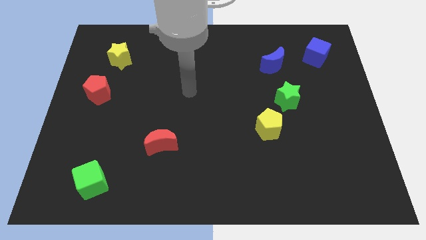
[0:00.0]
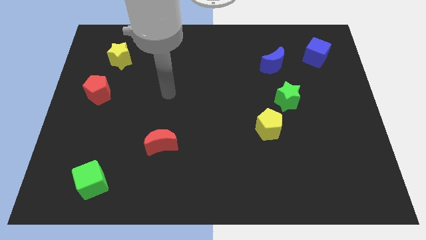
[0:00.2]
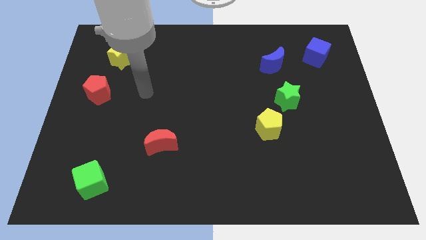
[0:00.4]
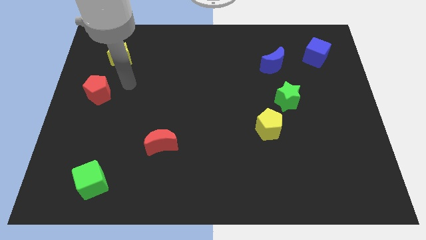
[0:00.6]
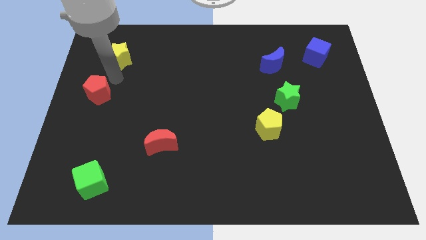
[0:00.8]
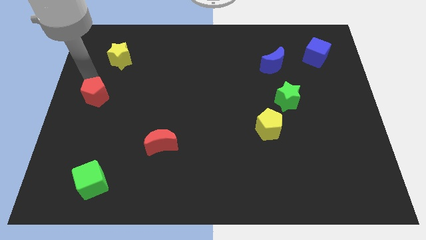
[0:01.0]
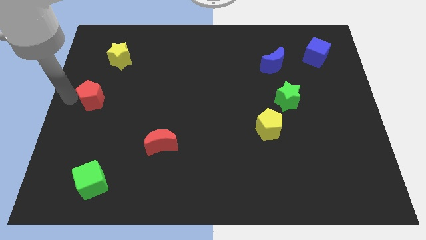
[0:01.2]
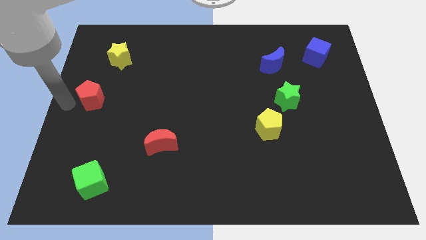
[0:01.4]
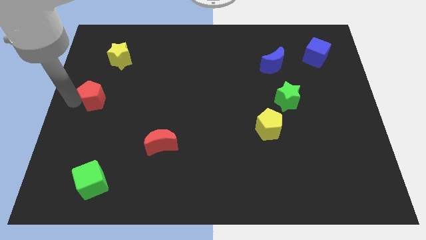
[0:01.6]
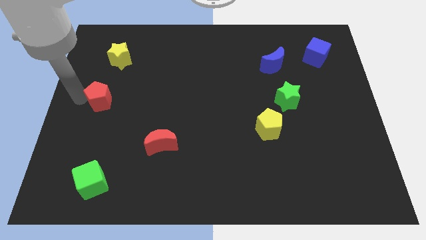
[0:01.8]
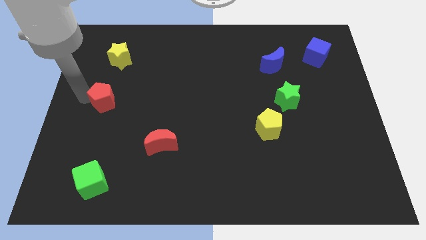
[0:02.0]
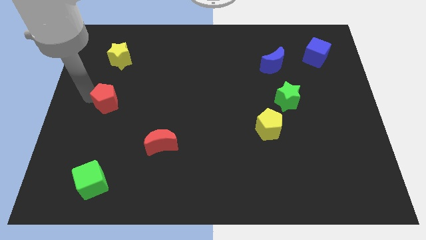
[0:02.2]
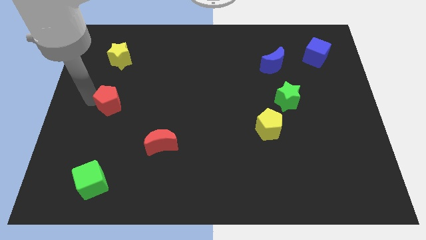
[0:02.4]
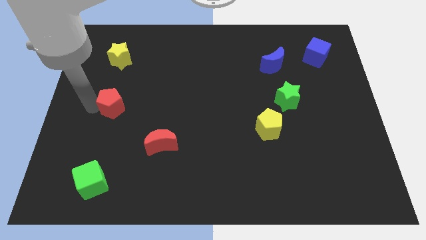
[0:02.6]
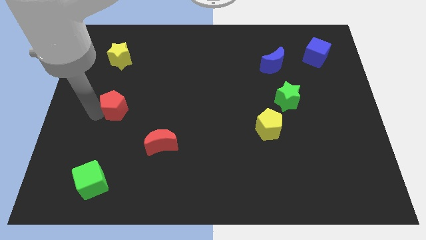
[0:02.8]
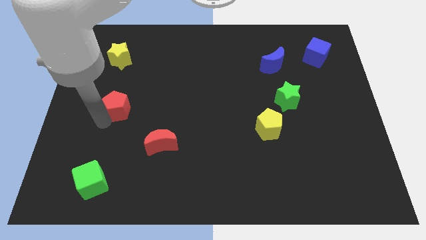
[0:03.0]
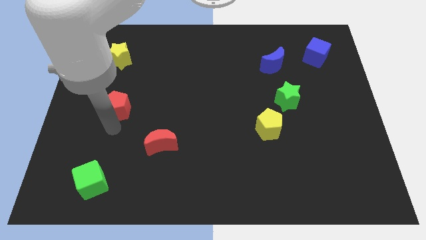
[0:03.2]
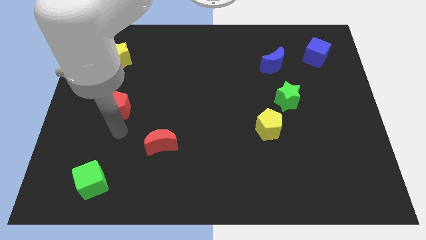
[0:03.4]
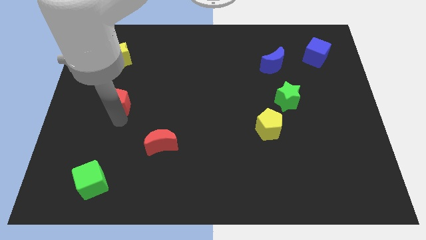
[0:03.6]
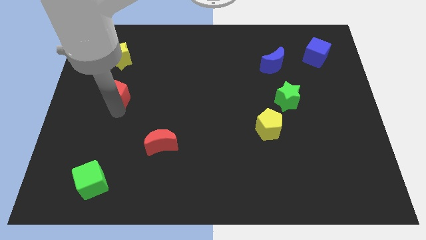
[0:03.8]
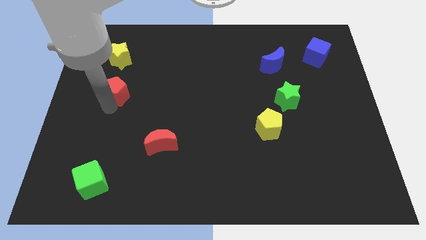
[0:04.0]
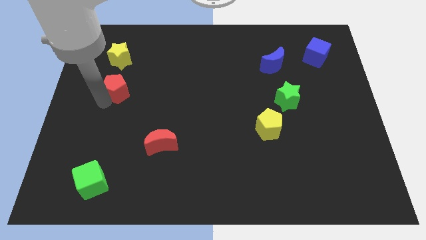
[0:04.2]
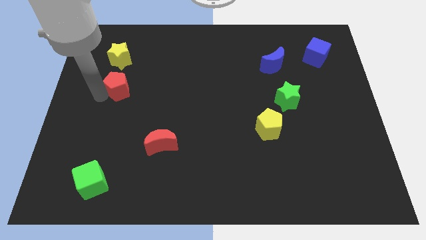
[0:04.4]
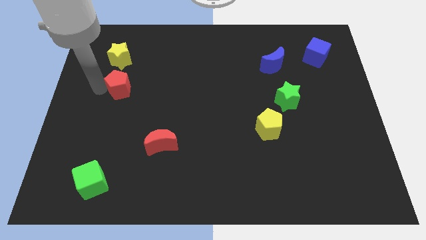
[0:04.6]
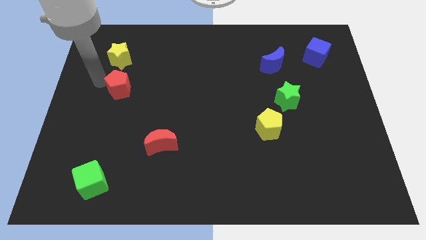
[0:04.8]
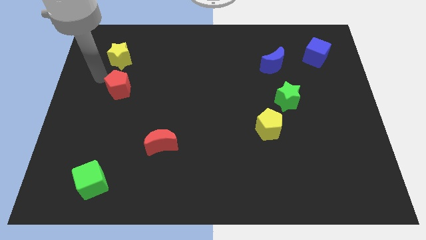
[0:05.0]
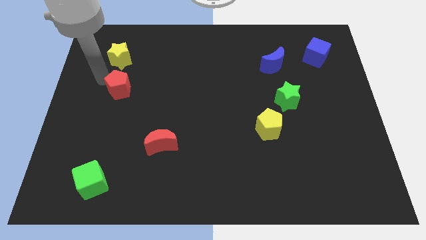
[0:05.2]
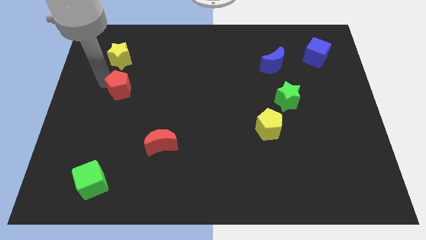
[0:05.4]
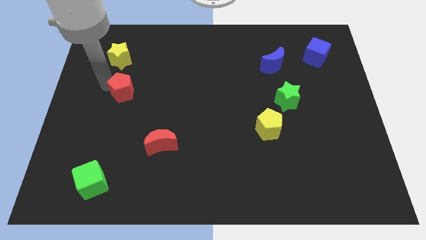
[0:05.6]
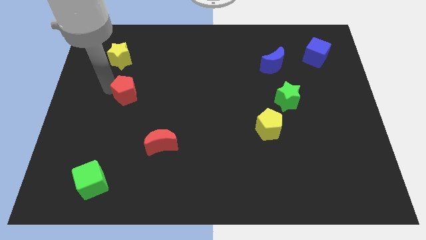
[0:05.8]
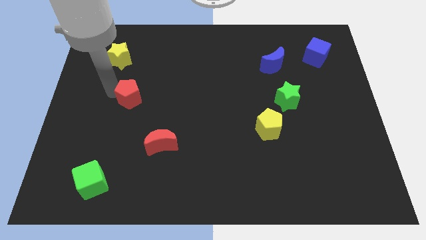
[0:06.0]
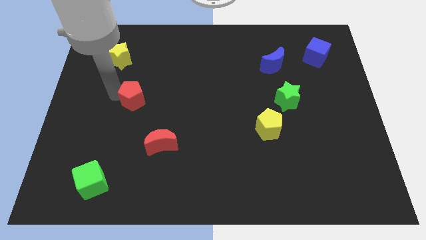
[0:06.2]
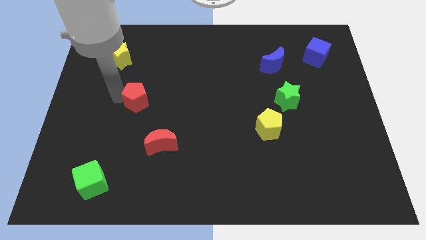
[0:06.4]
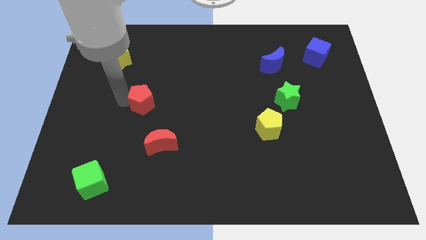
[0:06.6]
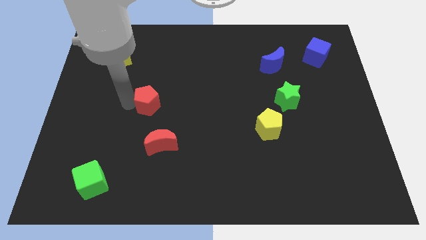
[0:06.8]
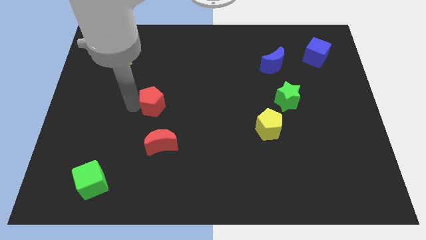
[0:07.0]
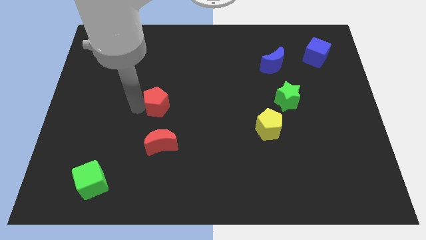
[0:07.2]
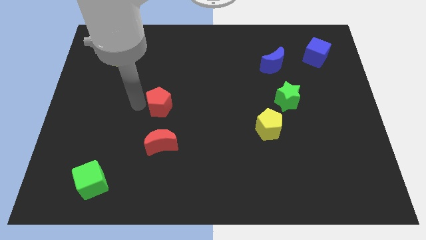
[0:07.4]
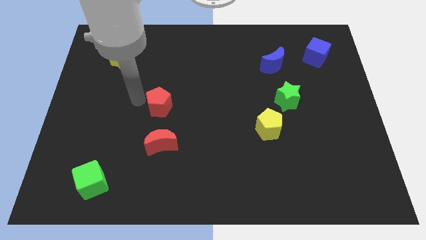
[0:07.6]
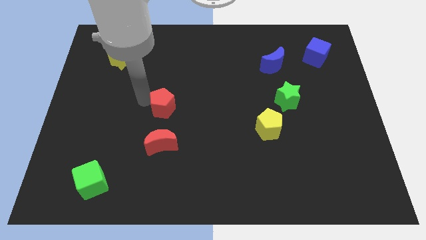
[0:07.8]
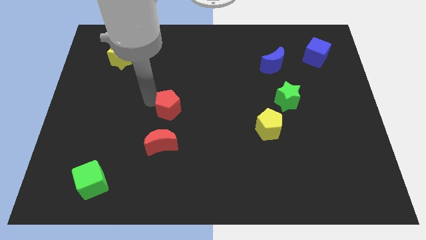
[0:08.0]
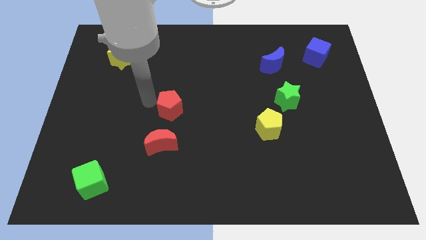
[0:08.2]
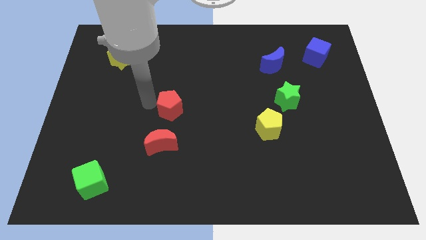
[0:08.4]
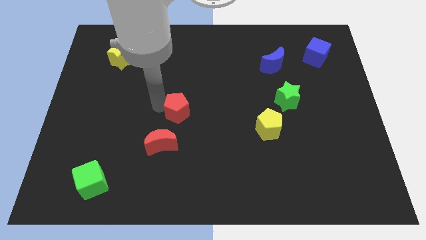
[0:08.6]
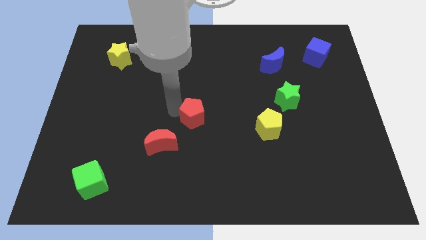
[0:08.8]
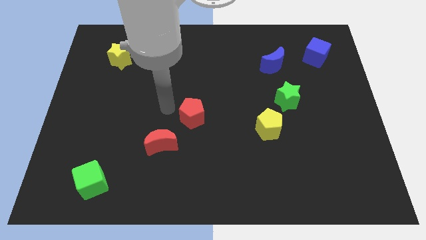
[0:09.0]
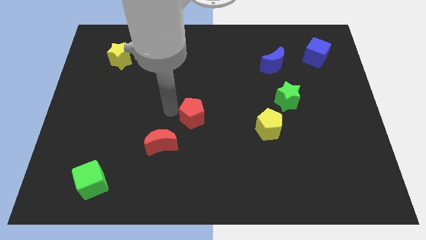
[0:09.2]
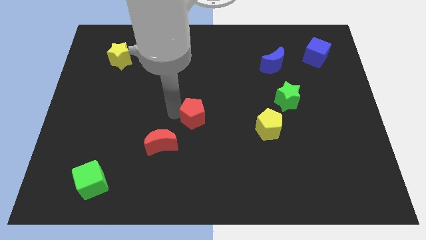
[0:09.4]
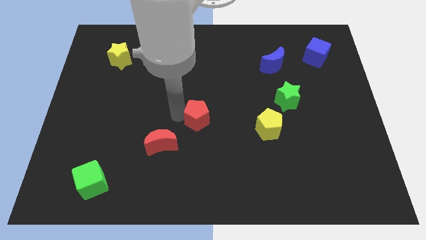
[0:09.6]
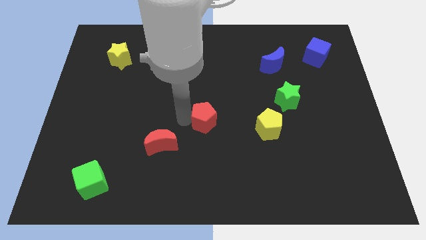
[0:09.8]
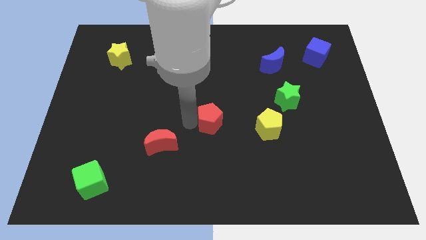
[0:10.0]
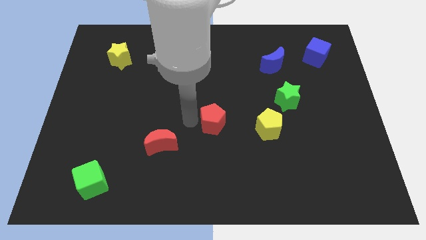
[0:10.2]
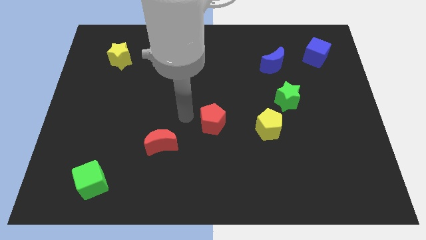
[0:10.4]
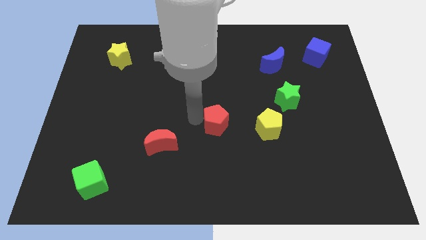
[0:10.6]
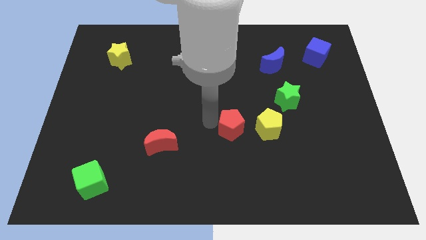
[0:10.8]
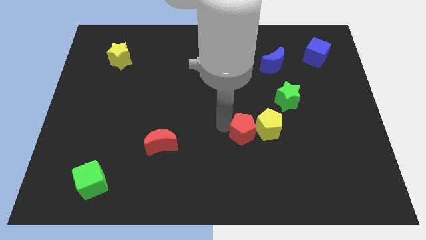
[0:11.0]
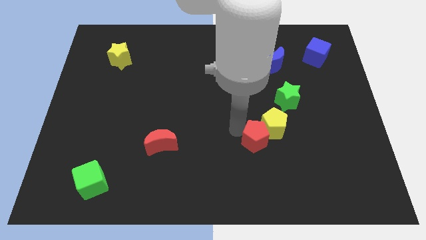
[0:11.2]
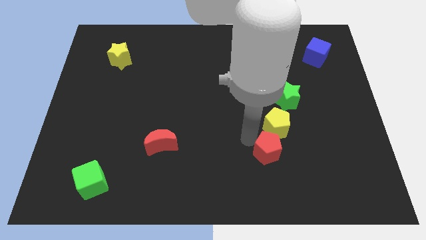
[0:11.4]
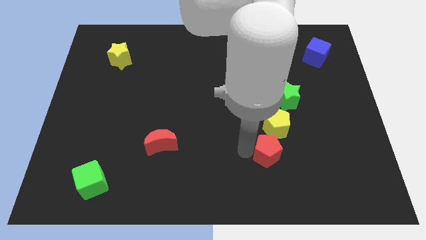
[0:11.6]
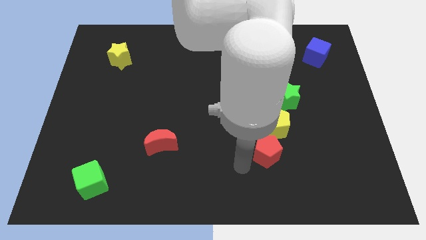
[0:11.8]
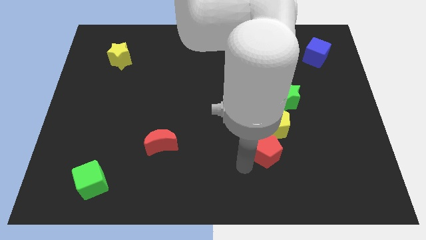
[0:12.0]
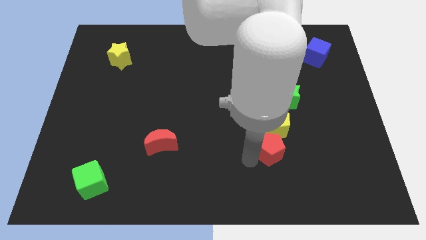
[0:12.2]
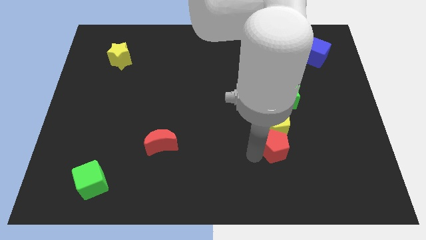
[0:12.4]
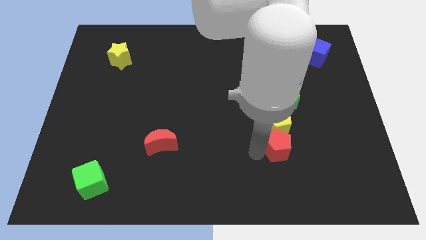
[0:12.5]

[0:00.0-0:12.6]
put the red pentagon below the green star
